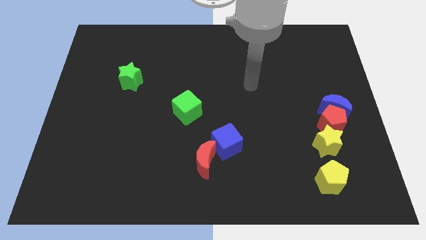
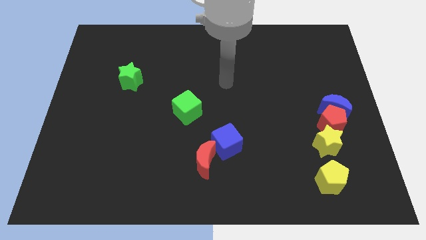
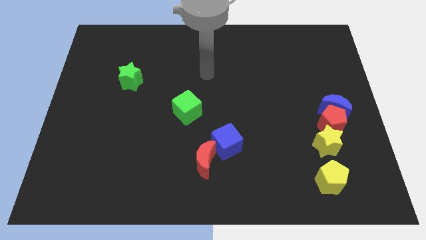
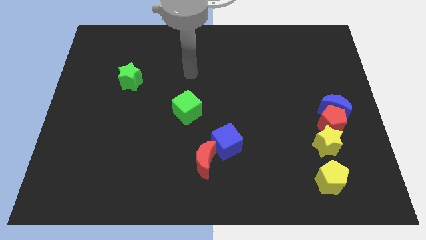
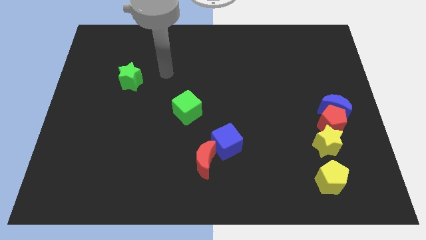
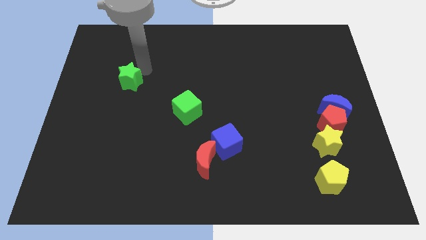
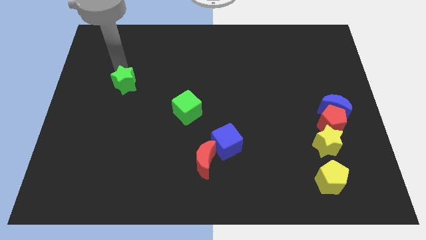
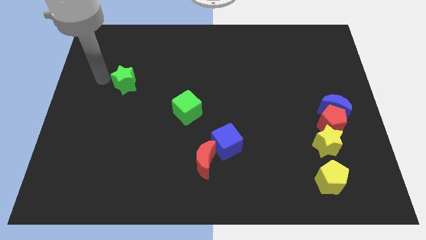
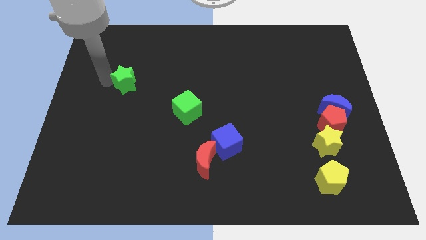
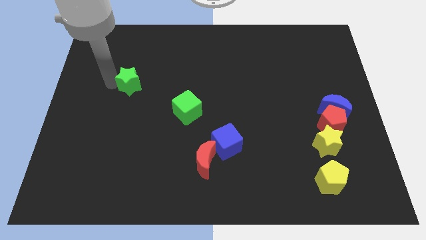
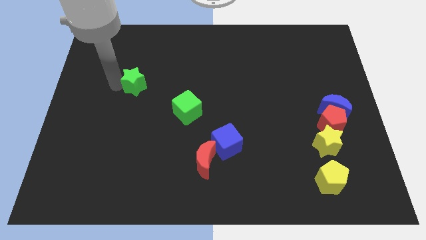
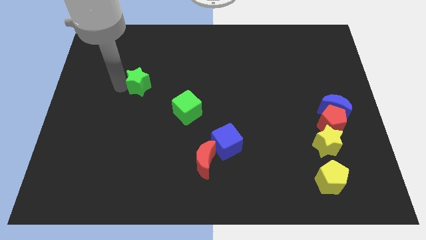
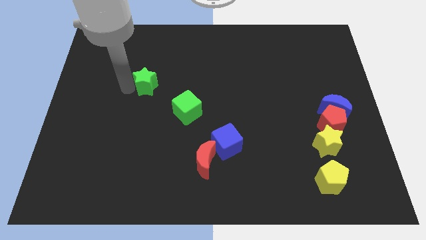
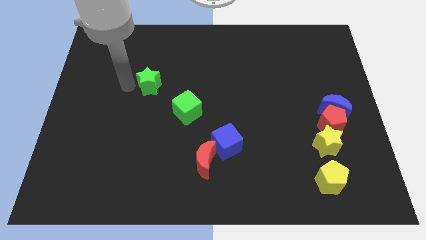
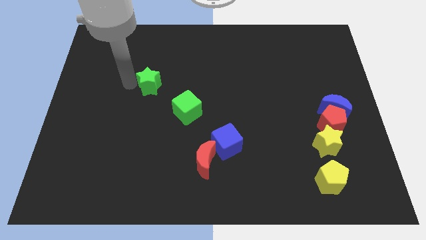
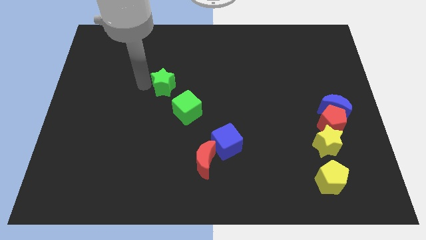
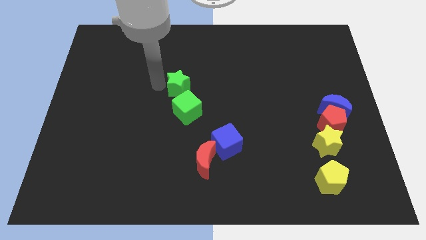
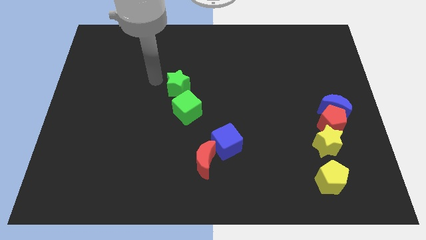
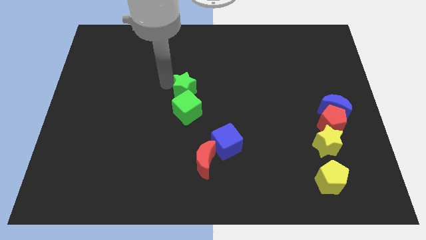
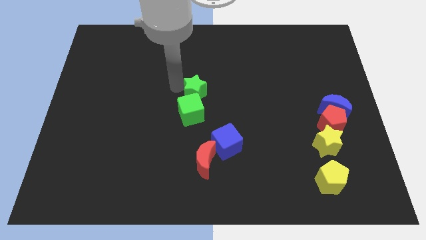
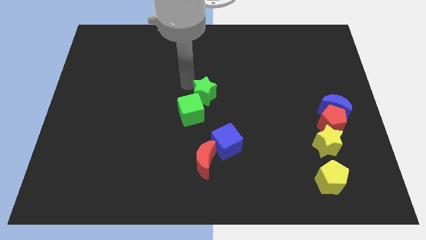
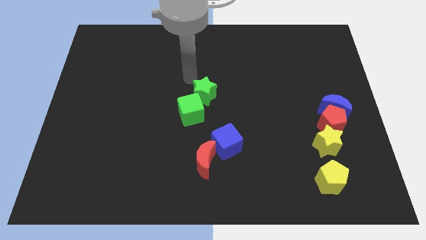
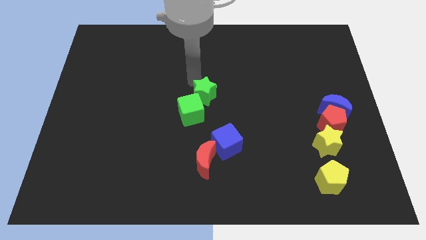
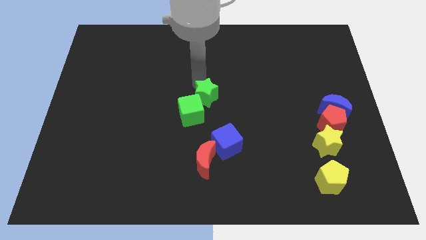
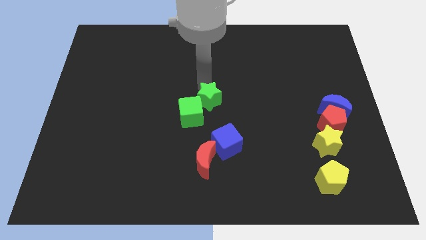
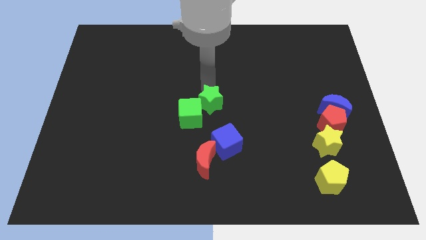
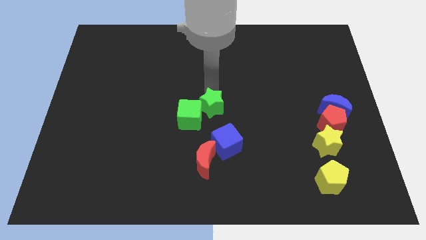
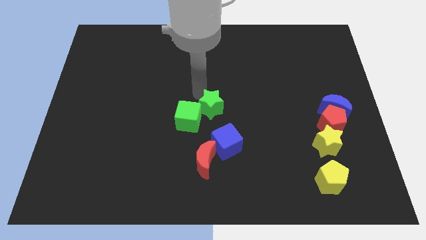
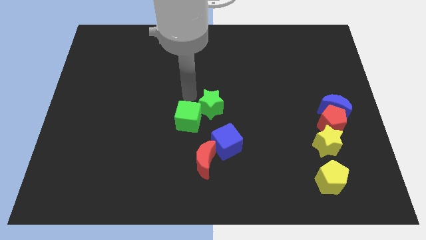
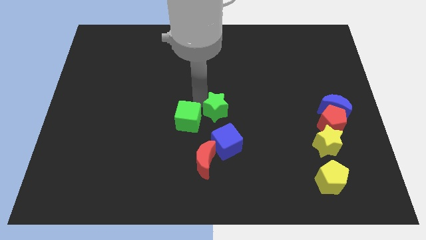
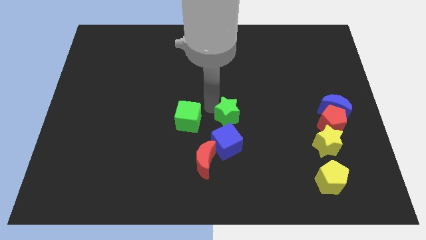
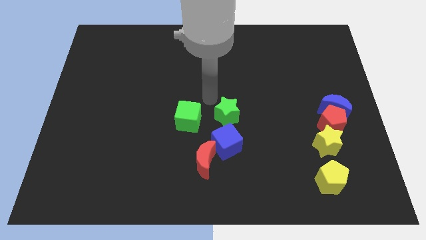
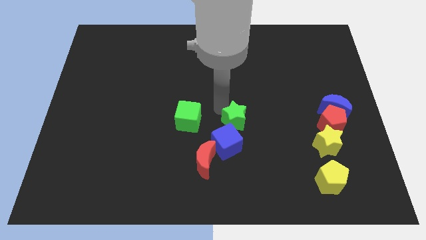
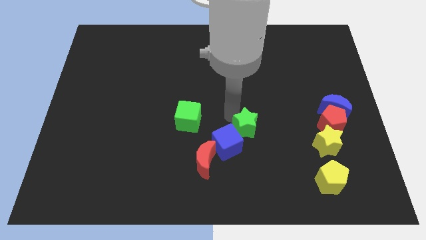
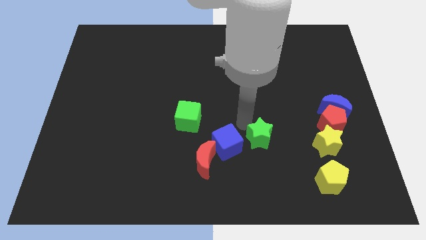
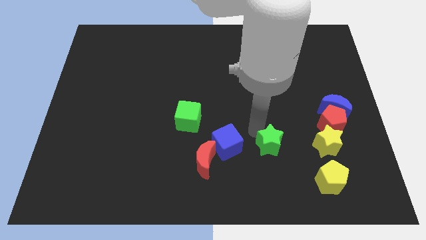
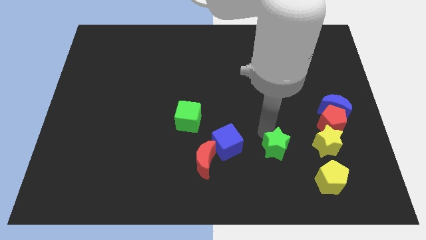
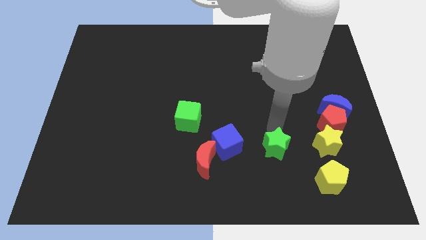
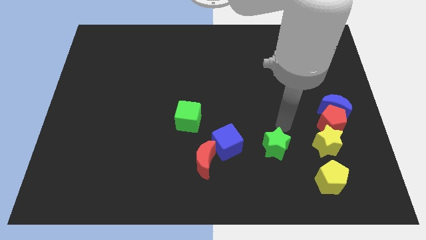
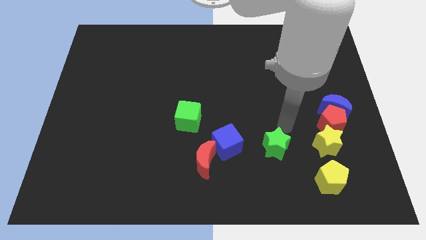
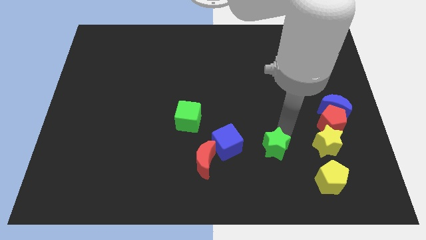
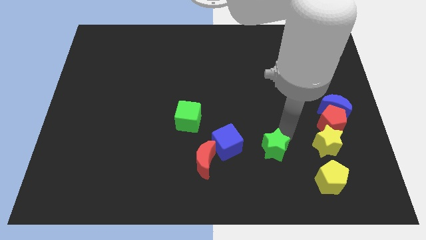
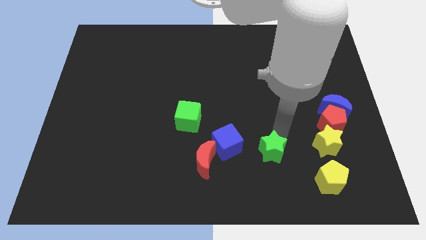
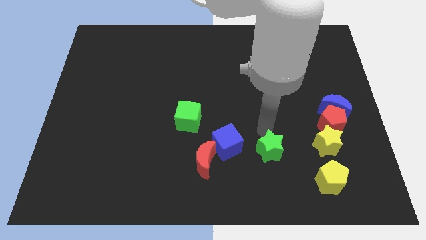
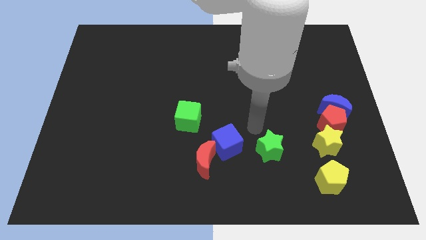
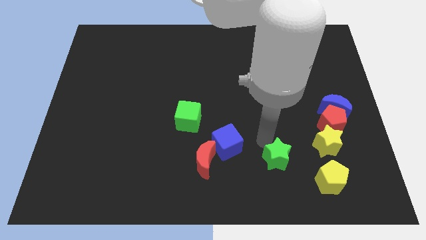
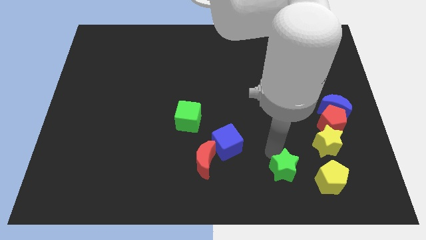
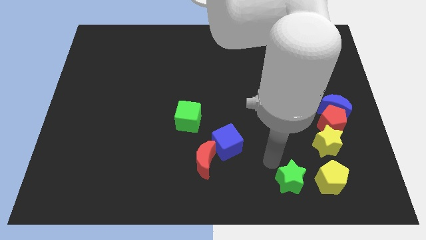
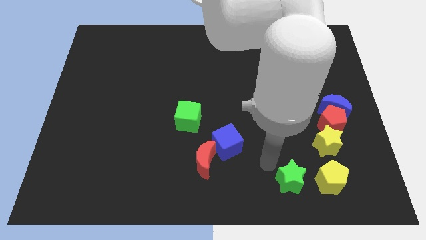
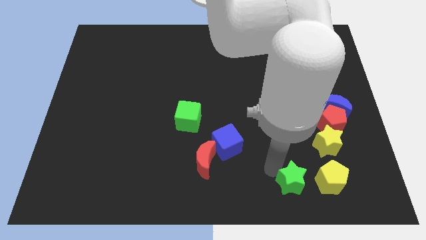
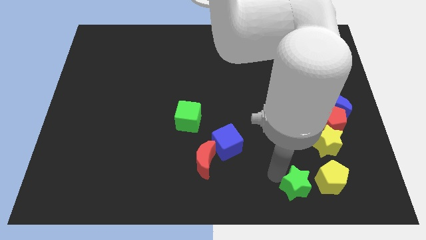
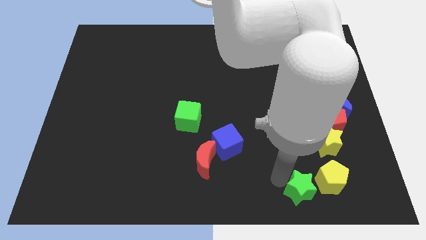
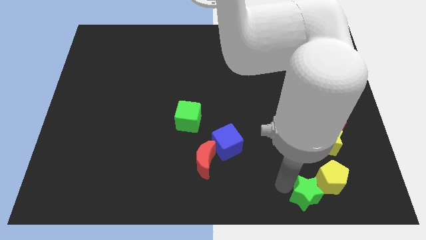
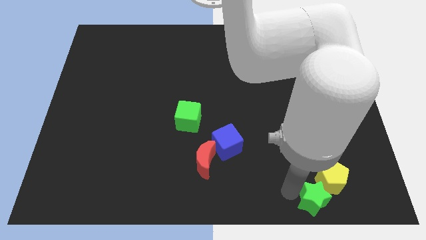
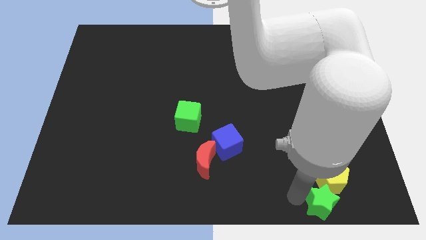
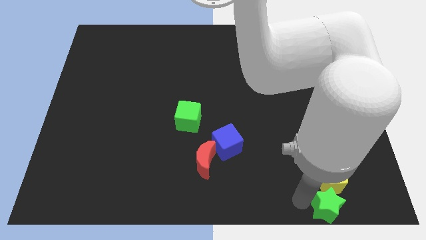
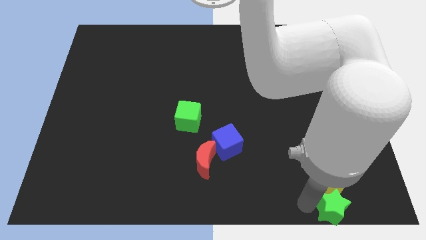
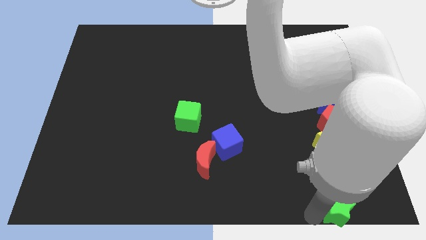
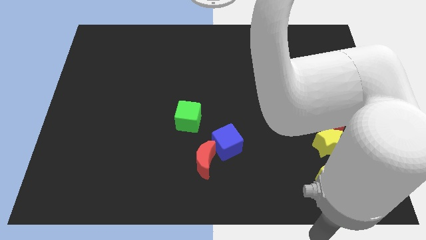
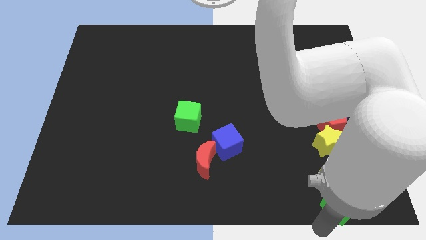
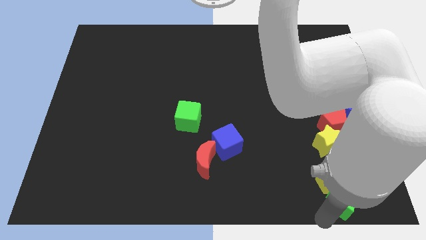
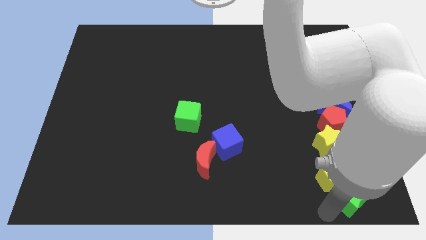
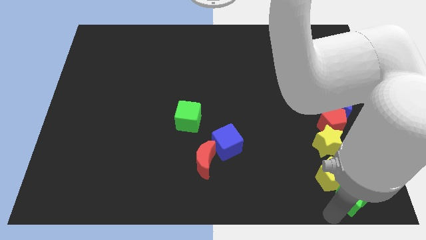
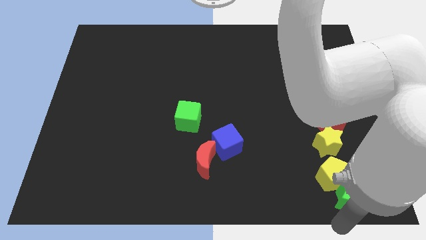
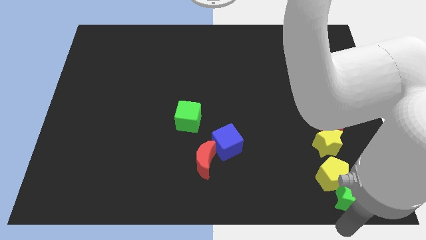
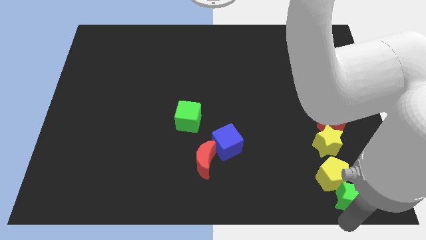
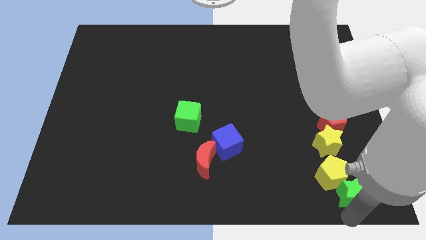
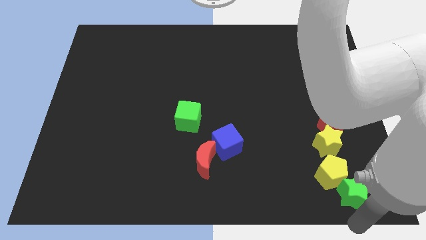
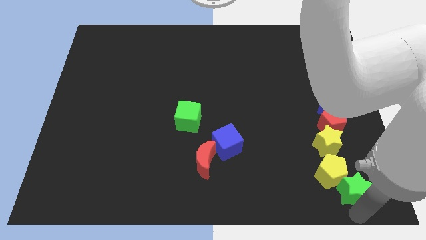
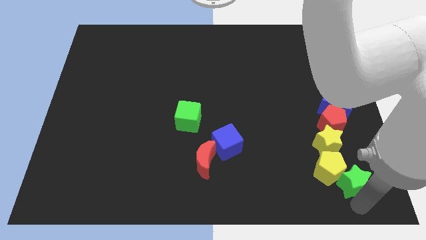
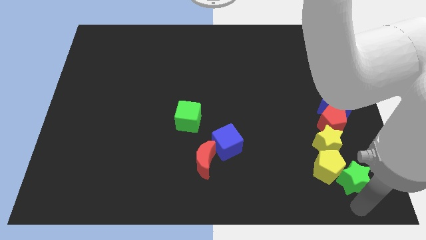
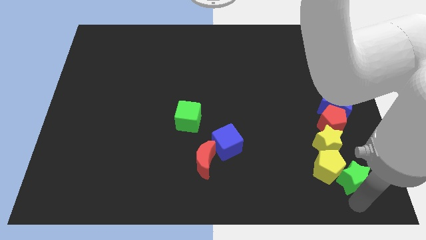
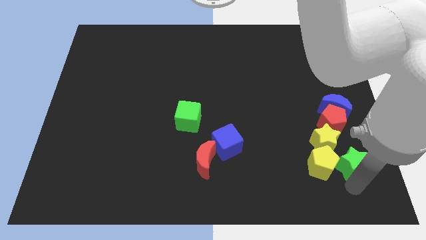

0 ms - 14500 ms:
slide the green star to the bottom side of the blue moon

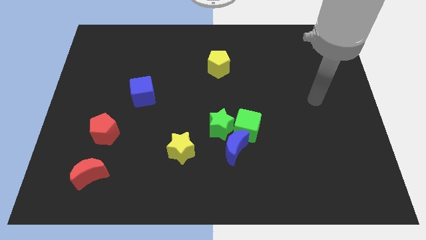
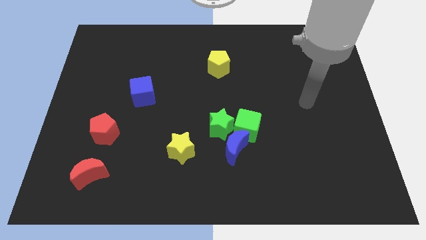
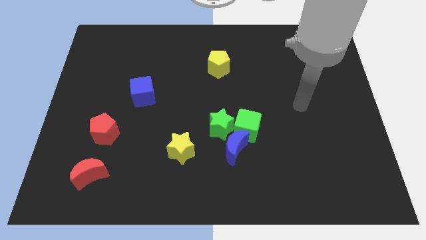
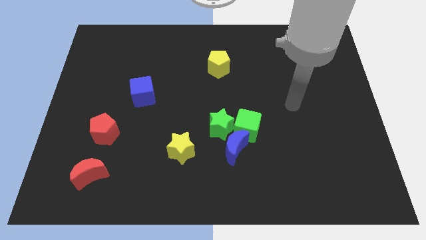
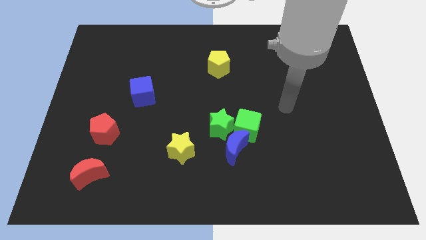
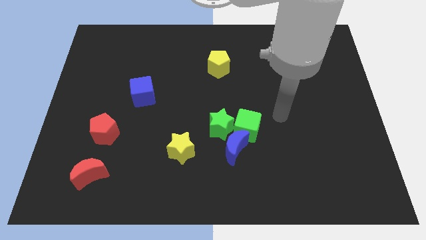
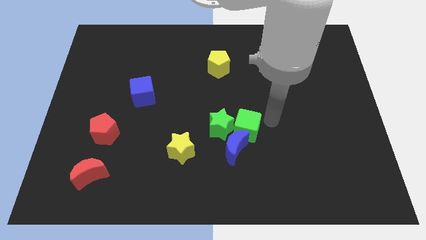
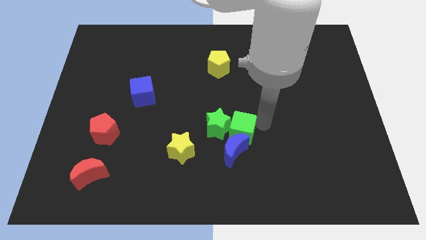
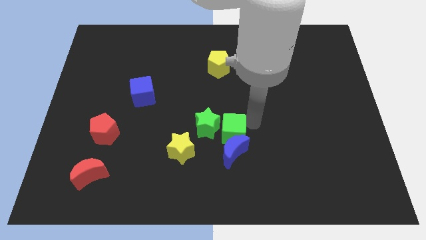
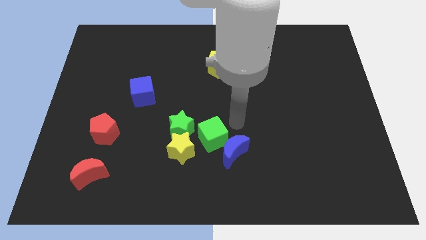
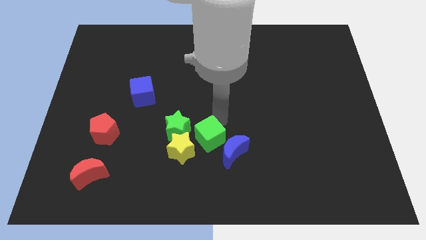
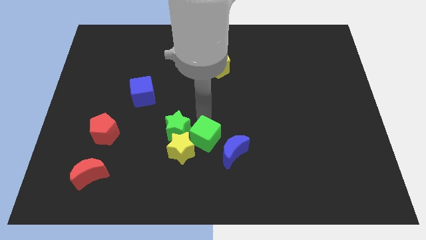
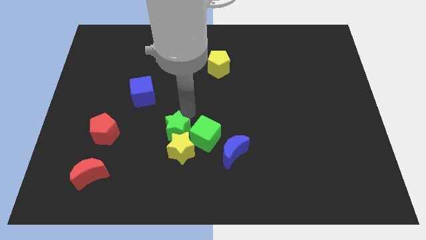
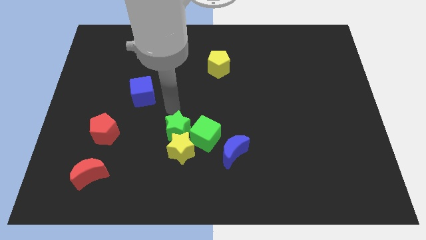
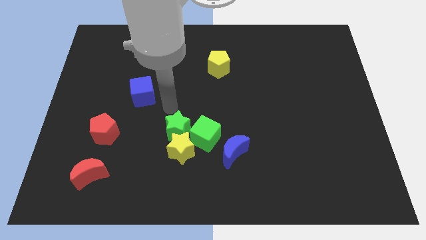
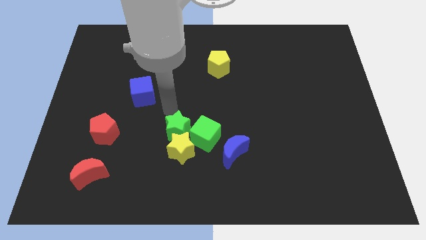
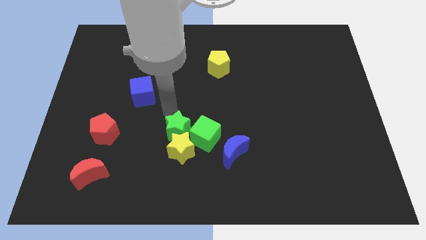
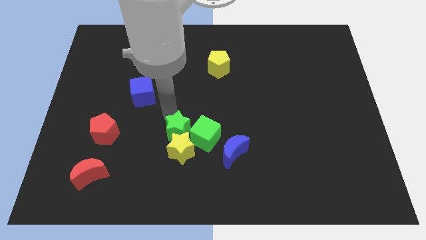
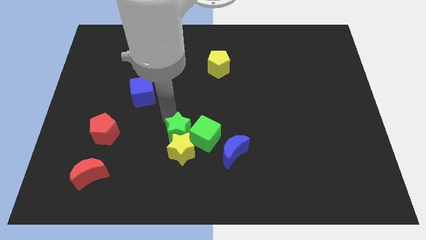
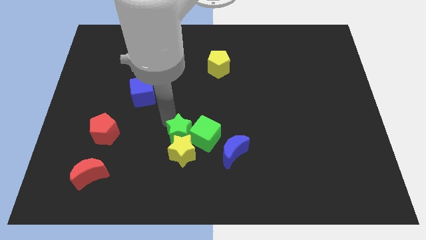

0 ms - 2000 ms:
push the green star to the left of the blue moon
